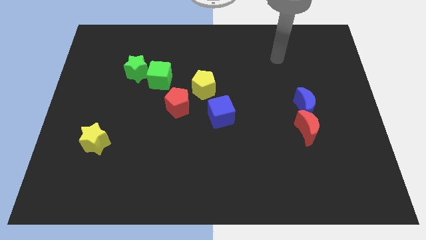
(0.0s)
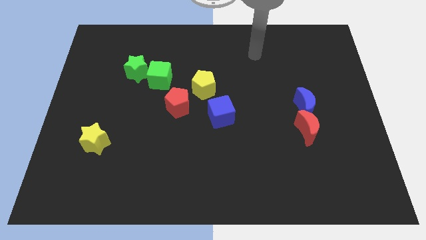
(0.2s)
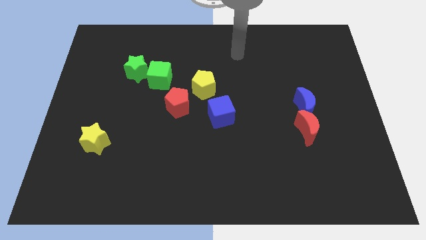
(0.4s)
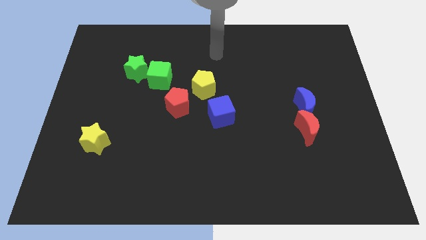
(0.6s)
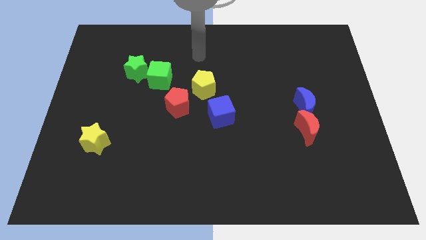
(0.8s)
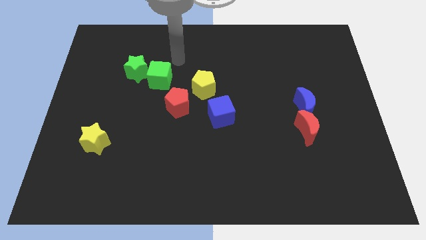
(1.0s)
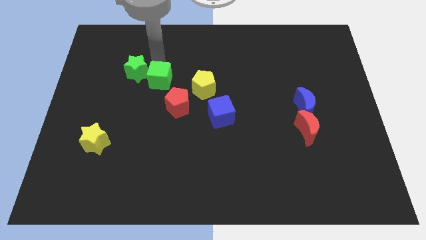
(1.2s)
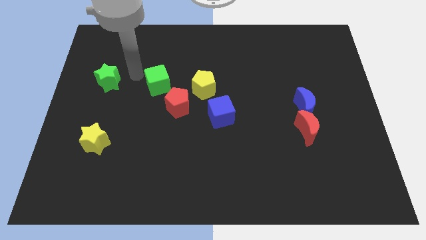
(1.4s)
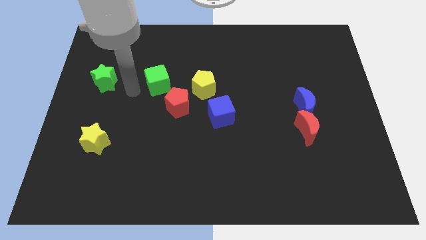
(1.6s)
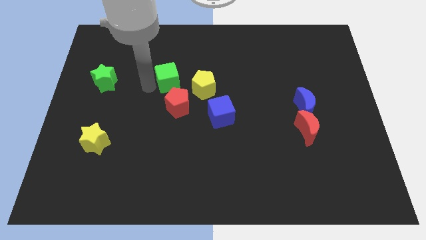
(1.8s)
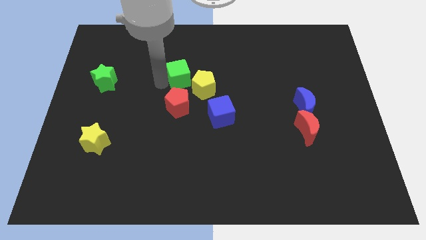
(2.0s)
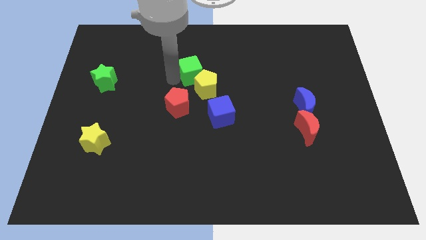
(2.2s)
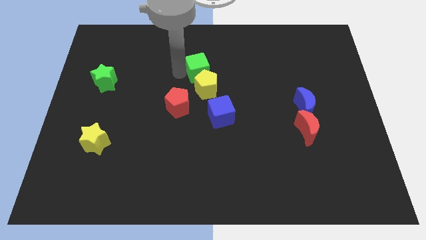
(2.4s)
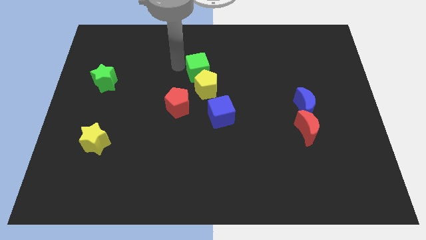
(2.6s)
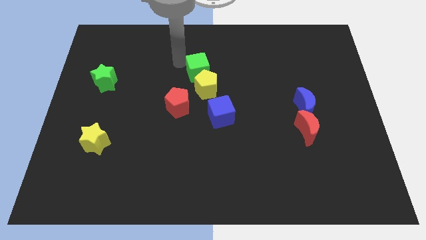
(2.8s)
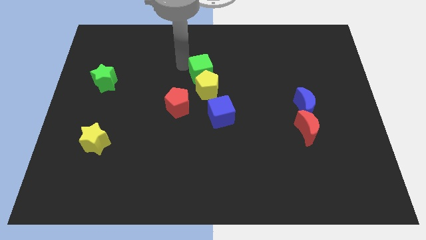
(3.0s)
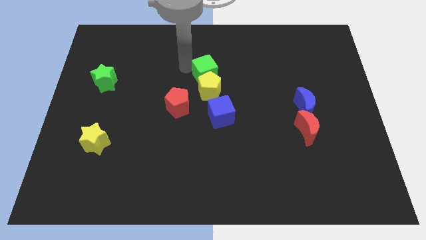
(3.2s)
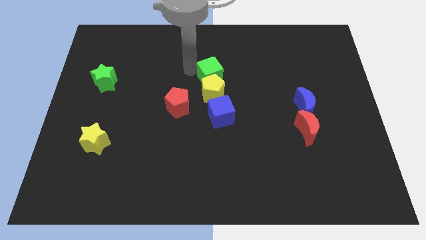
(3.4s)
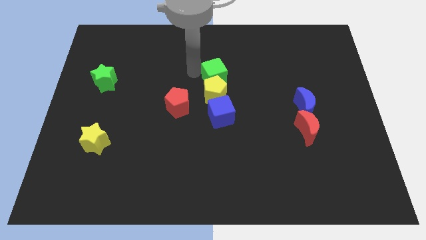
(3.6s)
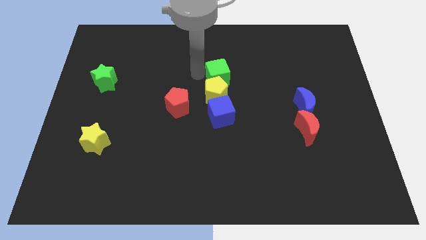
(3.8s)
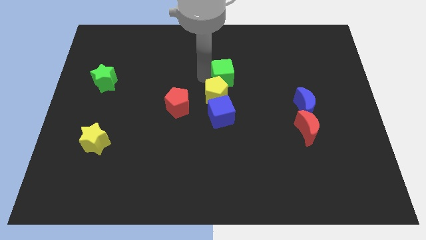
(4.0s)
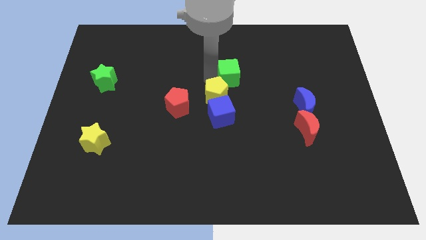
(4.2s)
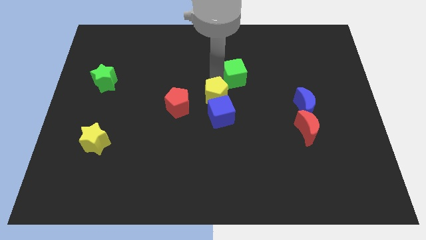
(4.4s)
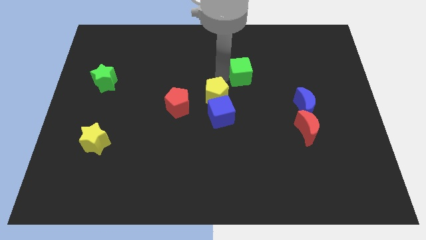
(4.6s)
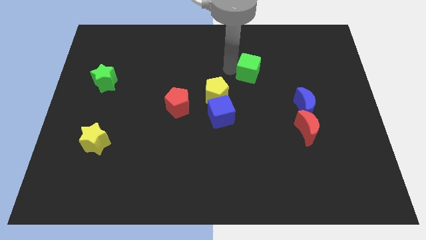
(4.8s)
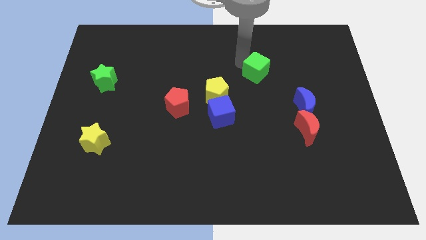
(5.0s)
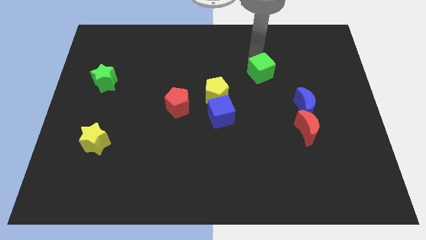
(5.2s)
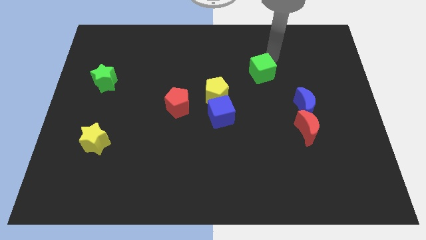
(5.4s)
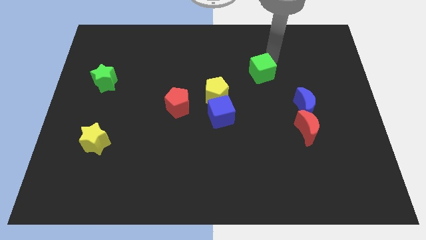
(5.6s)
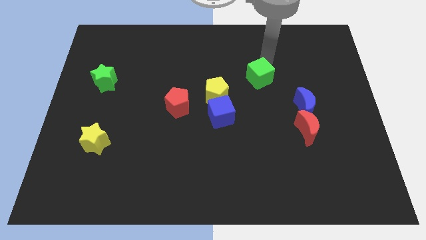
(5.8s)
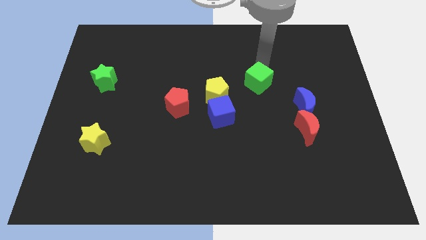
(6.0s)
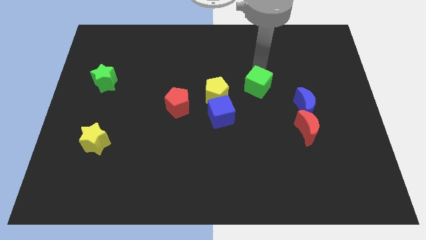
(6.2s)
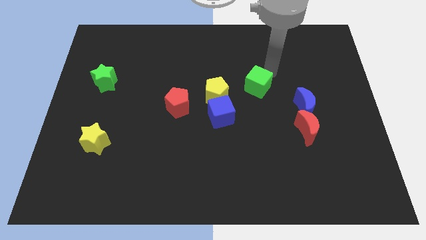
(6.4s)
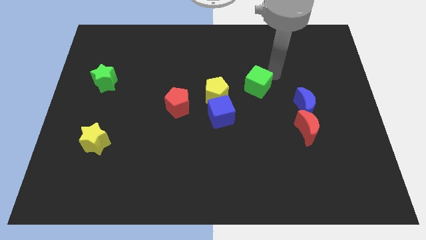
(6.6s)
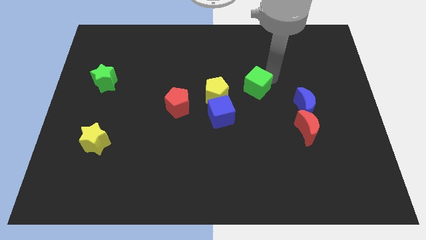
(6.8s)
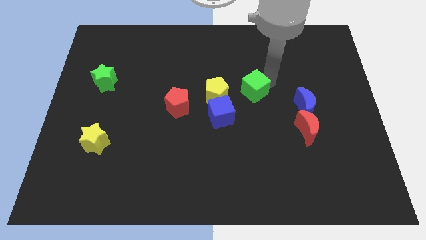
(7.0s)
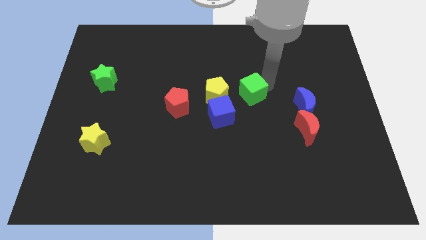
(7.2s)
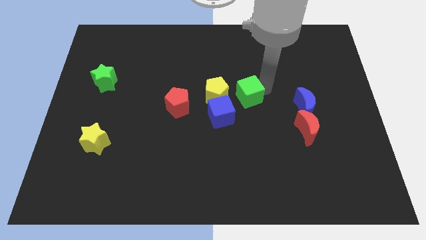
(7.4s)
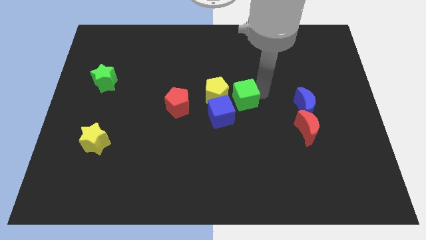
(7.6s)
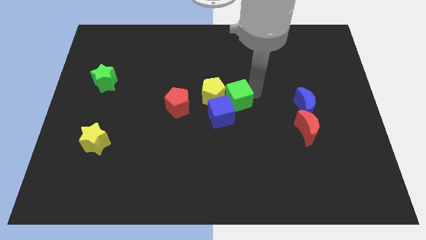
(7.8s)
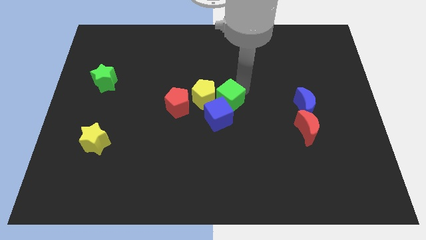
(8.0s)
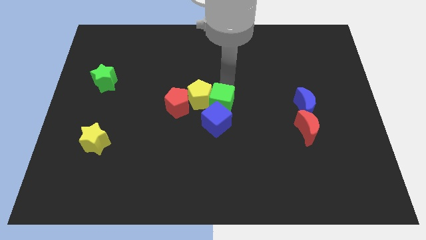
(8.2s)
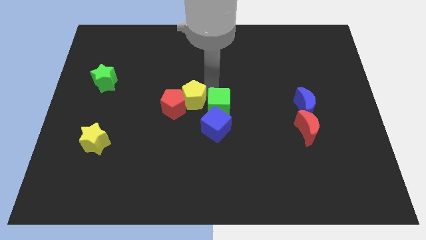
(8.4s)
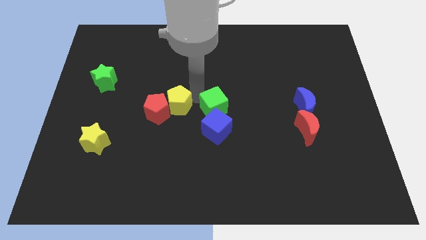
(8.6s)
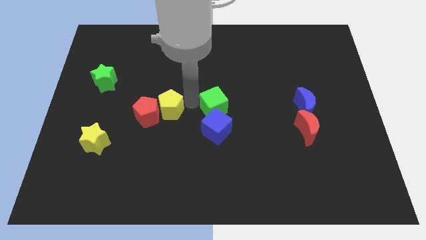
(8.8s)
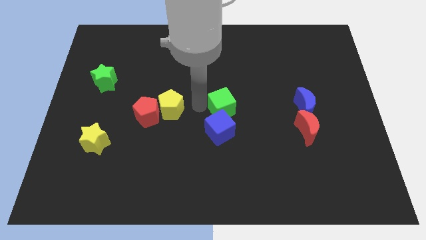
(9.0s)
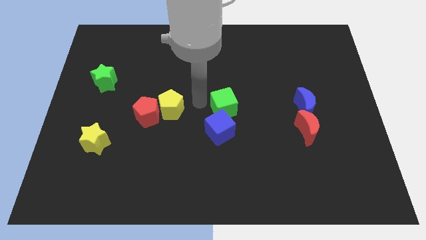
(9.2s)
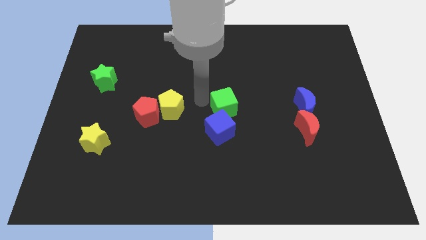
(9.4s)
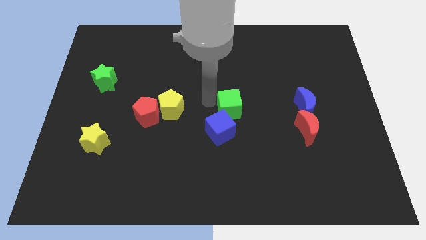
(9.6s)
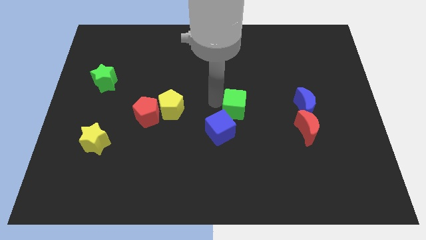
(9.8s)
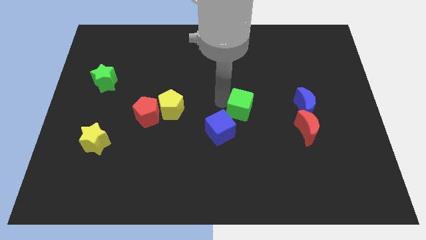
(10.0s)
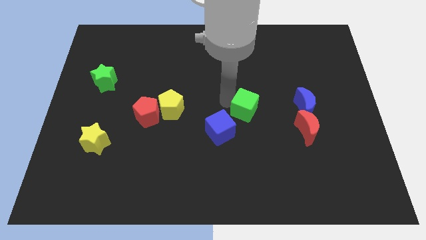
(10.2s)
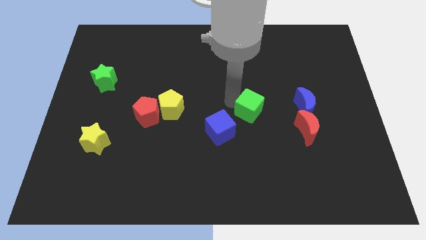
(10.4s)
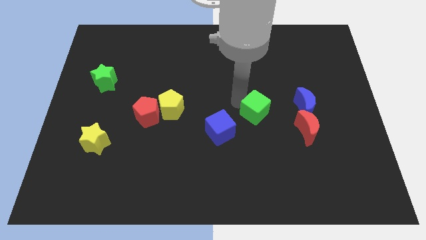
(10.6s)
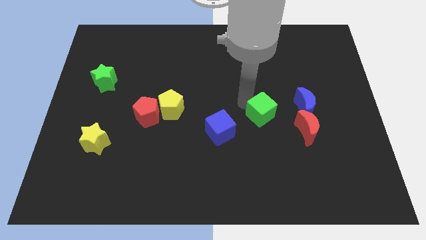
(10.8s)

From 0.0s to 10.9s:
push the green cube left of the red moon

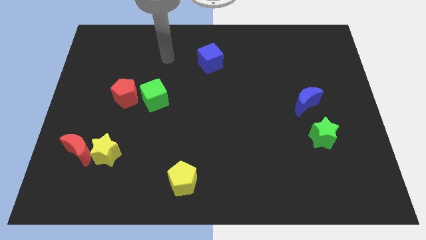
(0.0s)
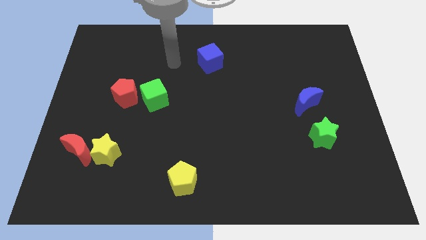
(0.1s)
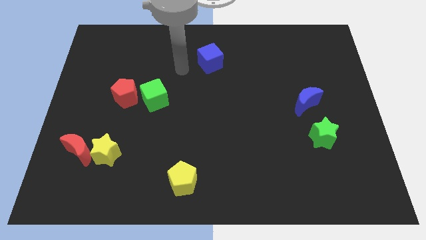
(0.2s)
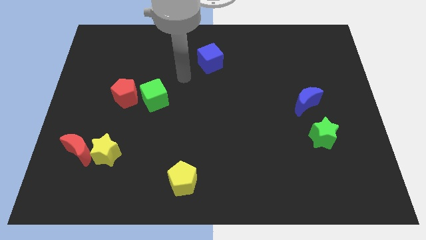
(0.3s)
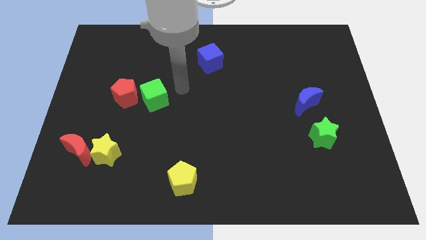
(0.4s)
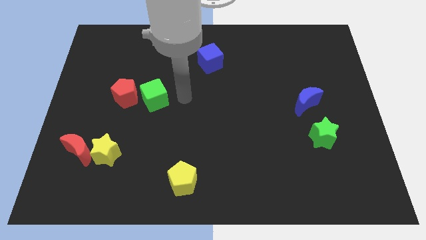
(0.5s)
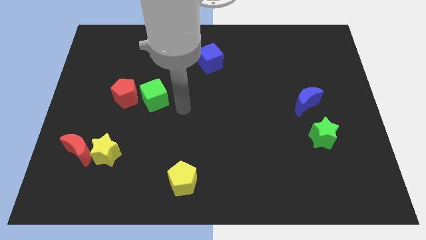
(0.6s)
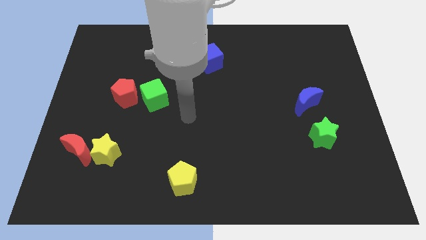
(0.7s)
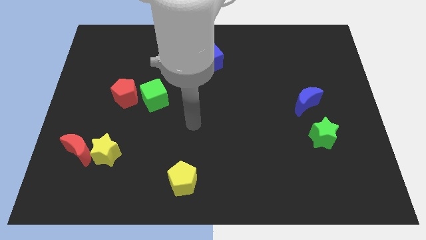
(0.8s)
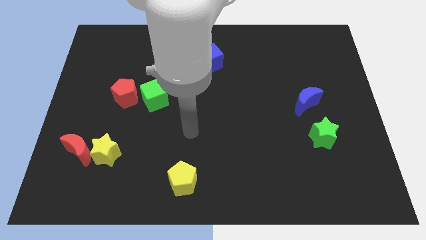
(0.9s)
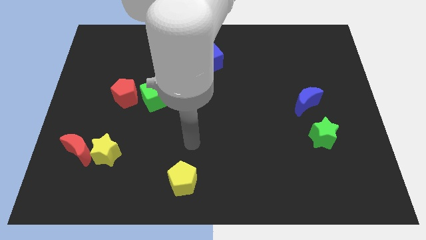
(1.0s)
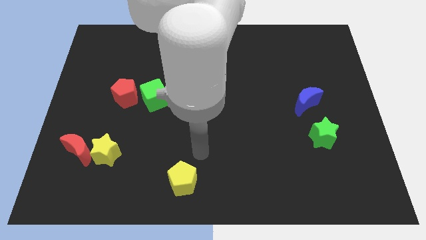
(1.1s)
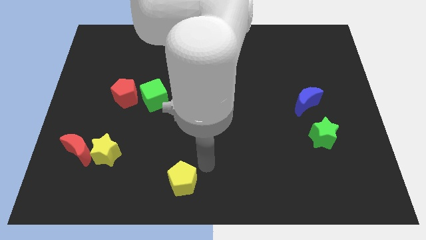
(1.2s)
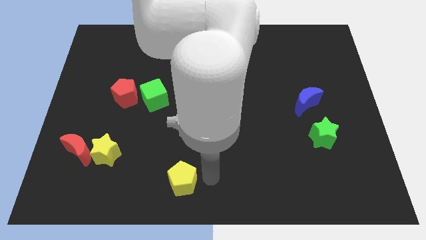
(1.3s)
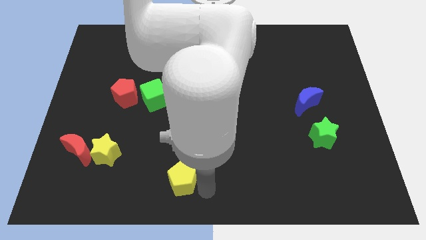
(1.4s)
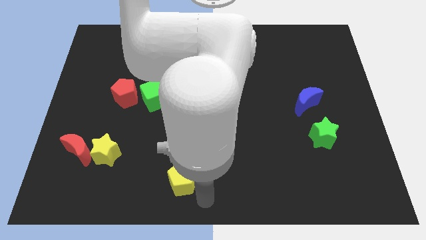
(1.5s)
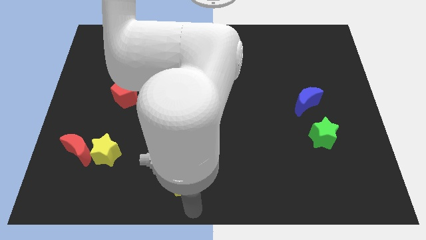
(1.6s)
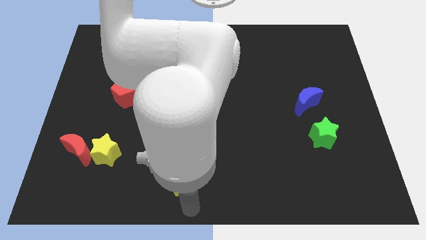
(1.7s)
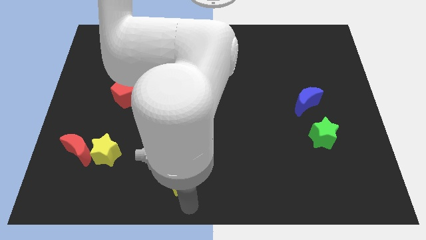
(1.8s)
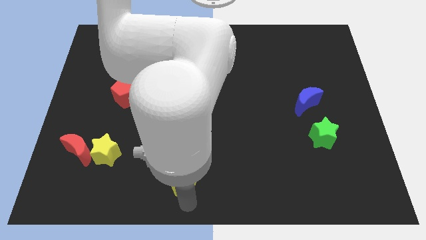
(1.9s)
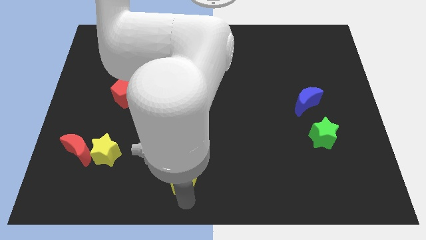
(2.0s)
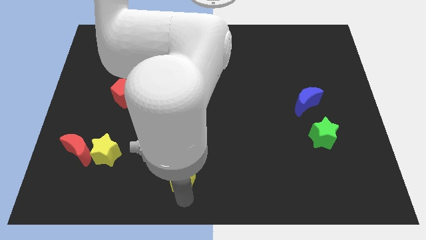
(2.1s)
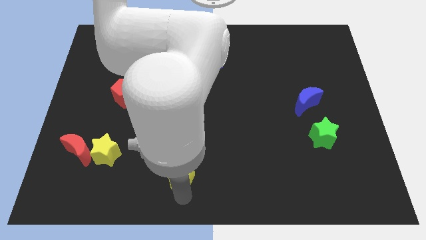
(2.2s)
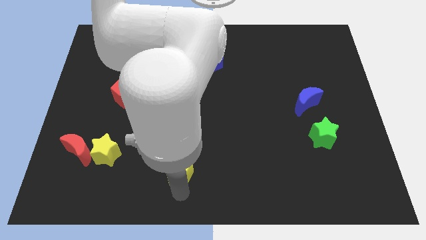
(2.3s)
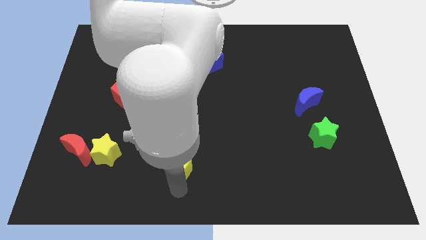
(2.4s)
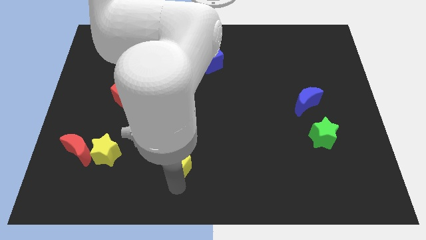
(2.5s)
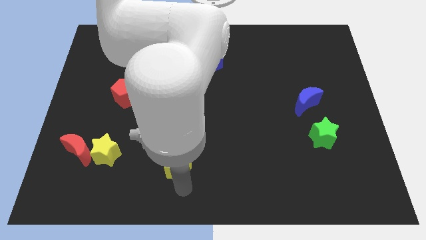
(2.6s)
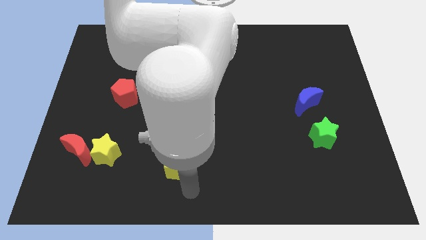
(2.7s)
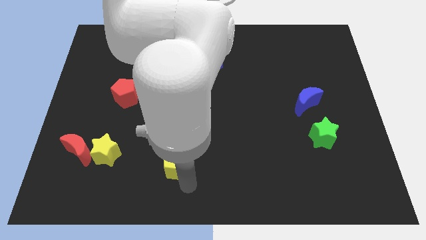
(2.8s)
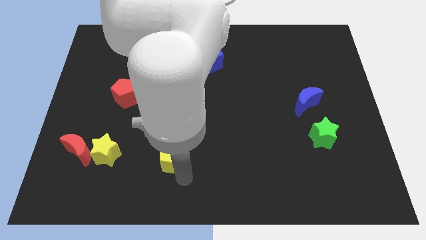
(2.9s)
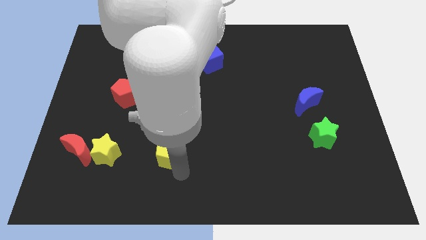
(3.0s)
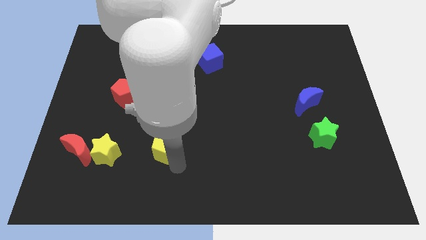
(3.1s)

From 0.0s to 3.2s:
push the yellow pentagon below the green cube

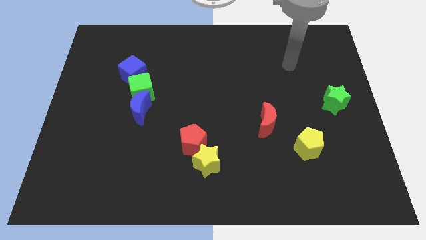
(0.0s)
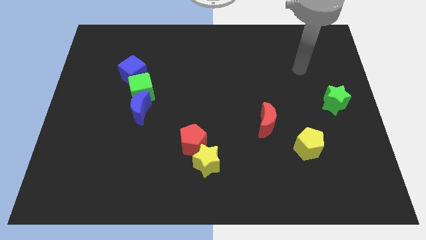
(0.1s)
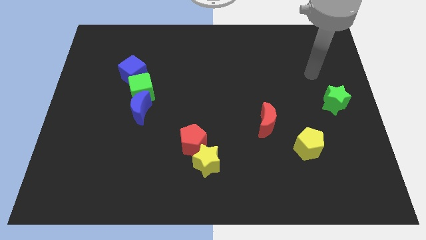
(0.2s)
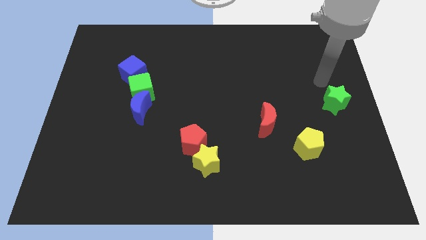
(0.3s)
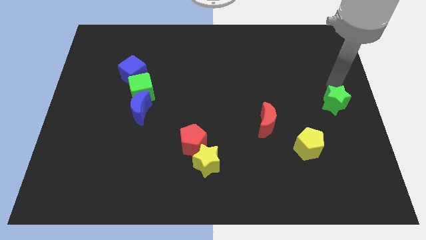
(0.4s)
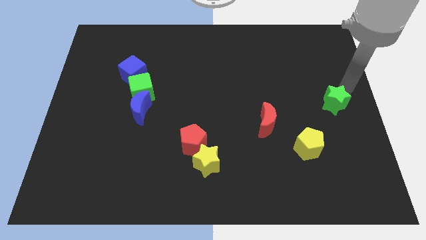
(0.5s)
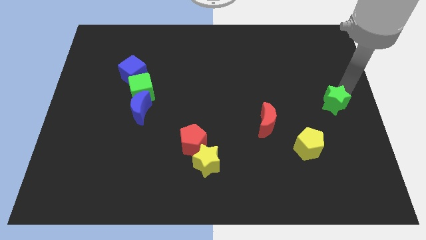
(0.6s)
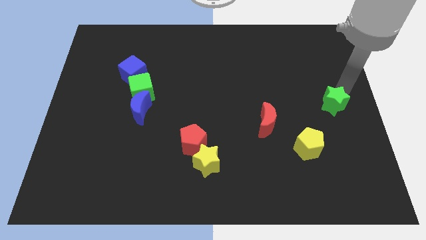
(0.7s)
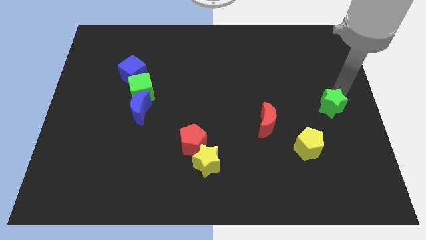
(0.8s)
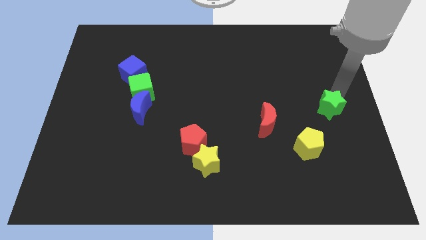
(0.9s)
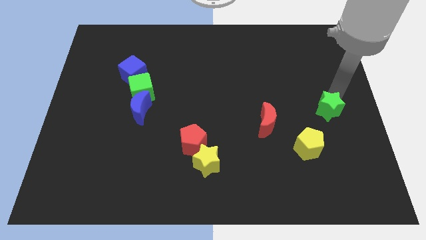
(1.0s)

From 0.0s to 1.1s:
put the green star to the right of the red moon
